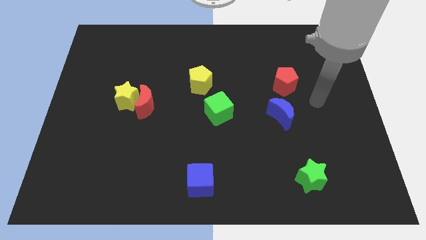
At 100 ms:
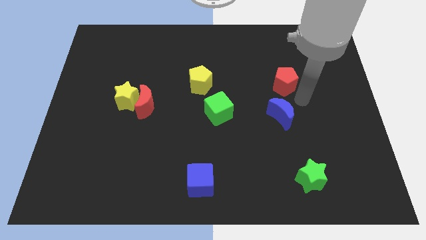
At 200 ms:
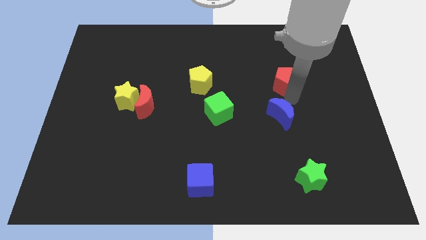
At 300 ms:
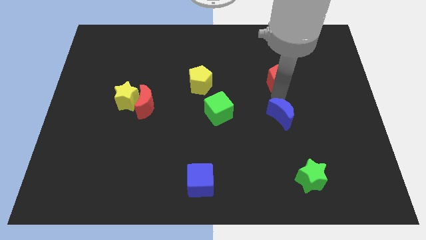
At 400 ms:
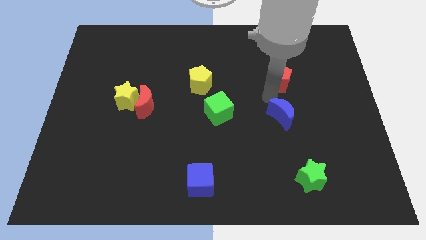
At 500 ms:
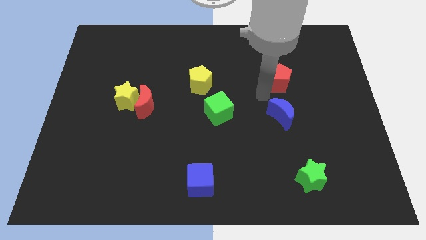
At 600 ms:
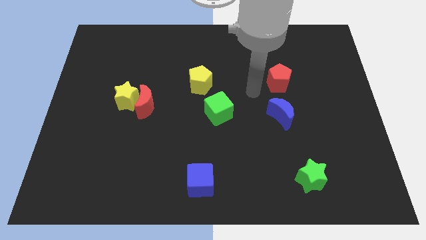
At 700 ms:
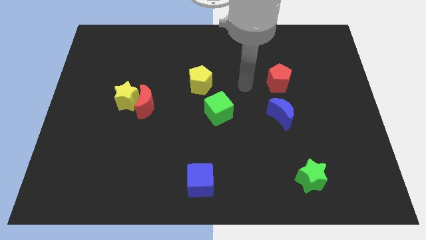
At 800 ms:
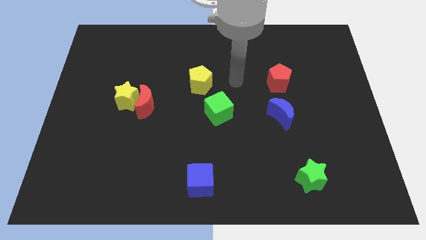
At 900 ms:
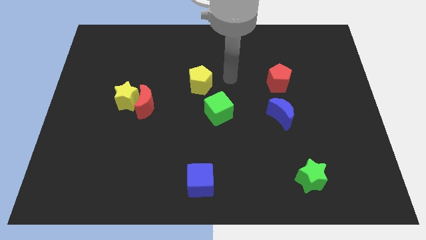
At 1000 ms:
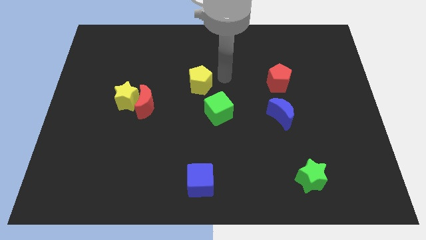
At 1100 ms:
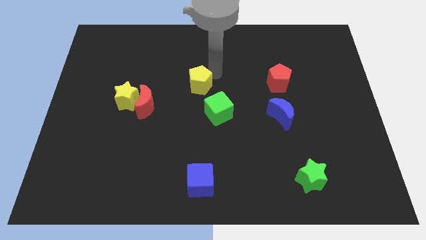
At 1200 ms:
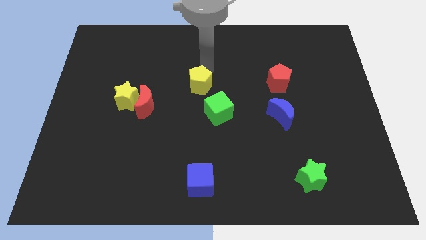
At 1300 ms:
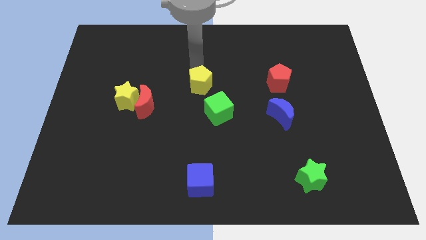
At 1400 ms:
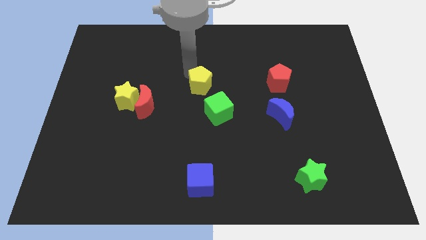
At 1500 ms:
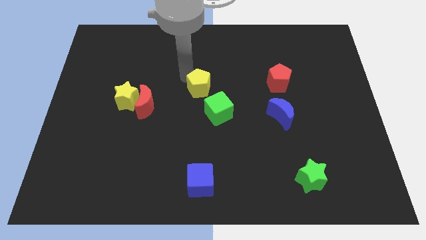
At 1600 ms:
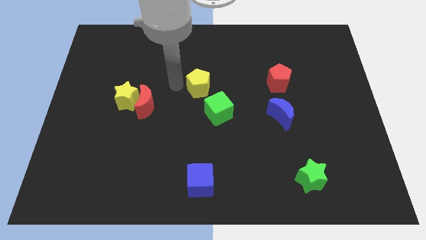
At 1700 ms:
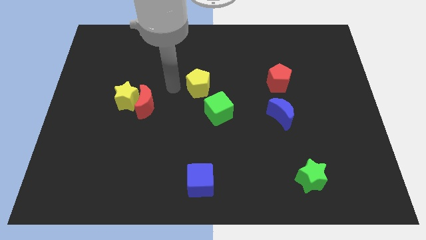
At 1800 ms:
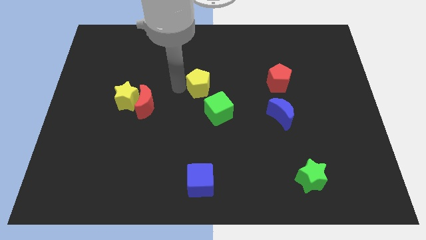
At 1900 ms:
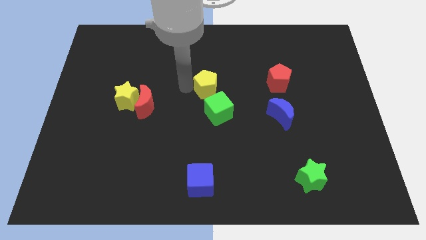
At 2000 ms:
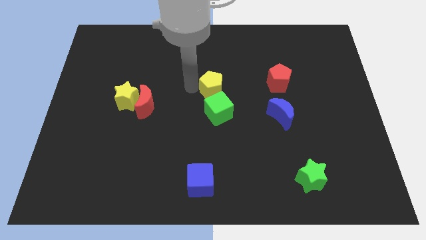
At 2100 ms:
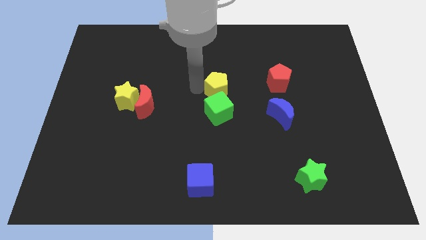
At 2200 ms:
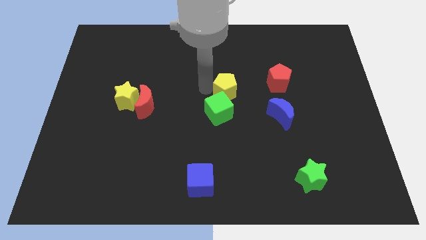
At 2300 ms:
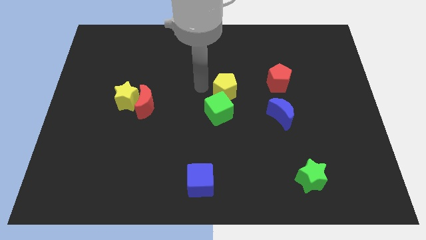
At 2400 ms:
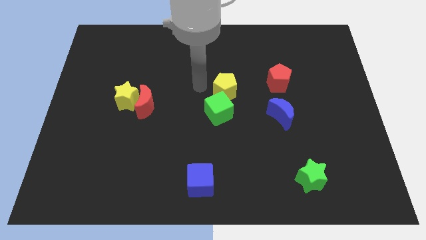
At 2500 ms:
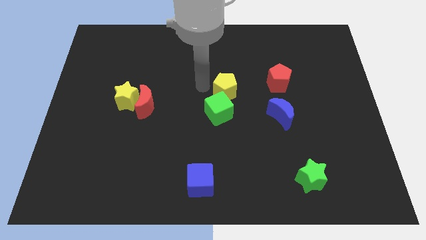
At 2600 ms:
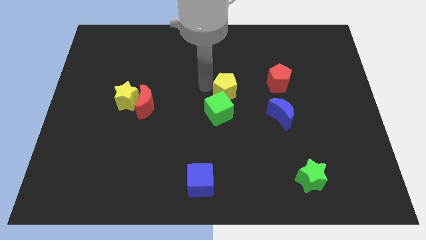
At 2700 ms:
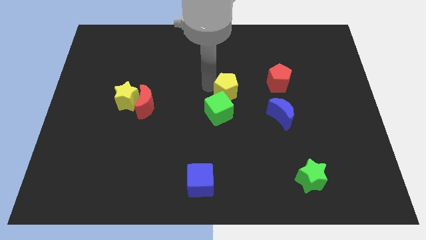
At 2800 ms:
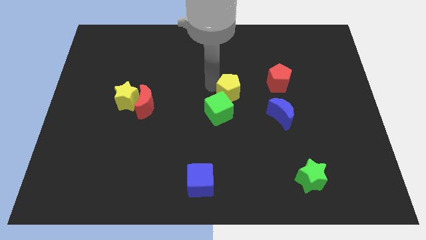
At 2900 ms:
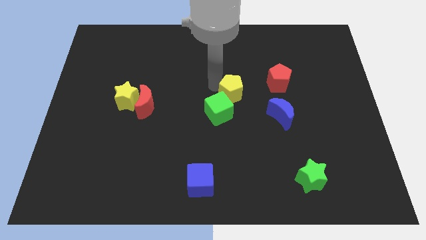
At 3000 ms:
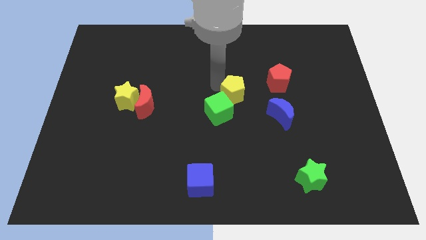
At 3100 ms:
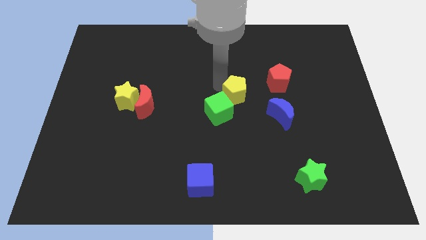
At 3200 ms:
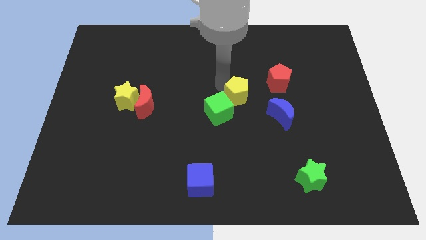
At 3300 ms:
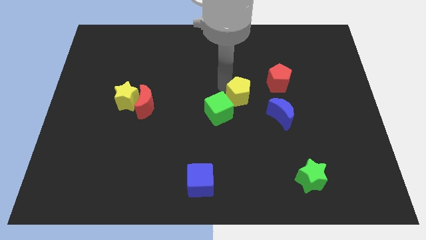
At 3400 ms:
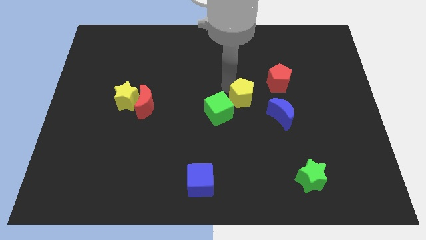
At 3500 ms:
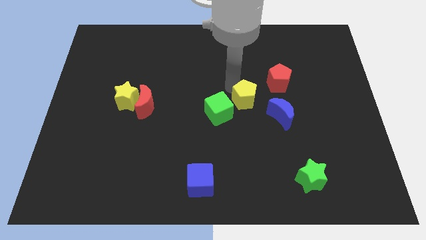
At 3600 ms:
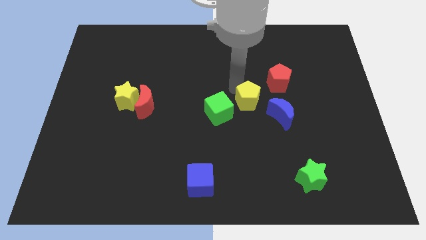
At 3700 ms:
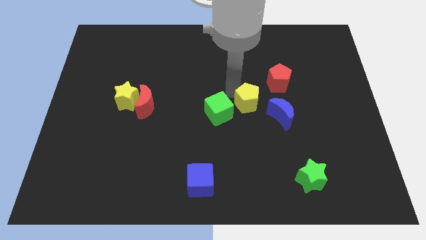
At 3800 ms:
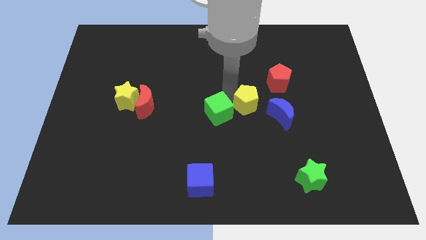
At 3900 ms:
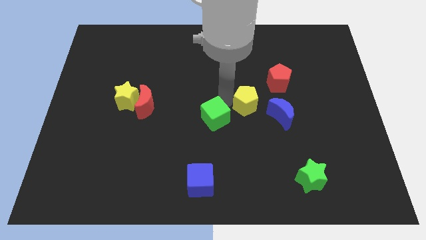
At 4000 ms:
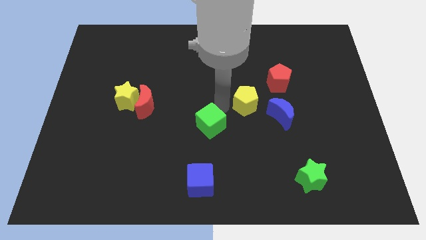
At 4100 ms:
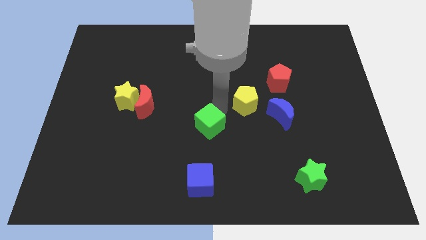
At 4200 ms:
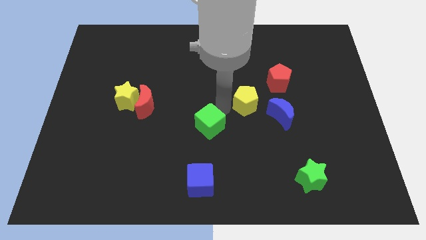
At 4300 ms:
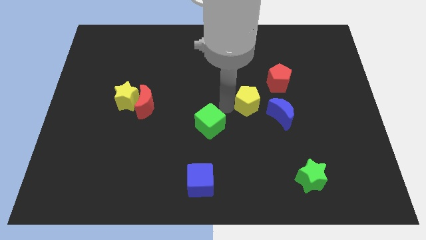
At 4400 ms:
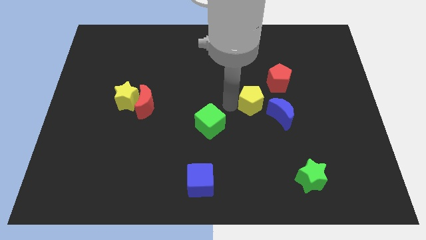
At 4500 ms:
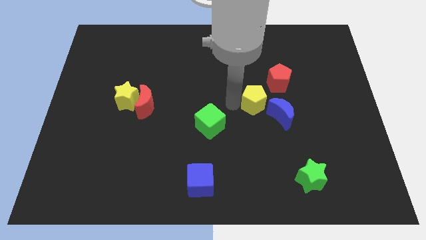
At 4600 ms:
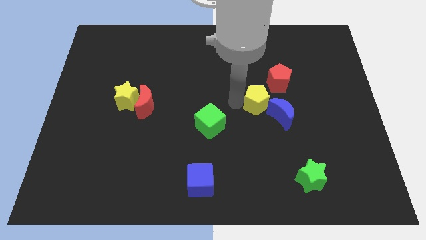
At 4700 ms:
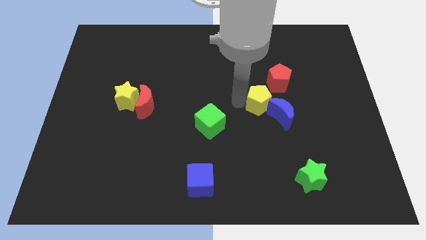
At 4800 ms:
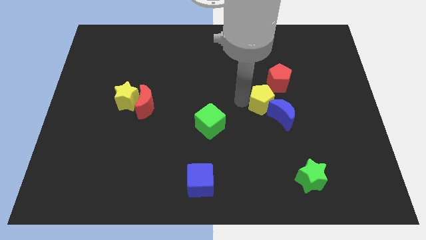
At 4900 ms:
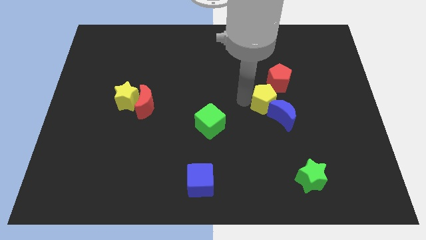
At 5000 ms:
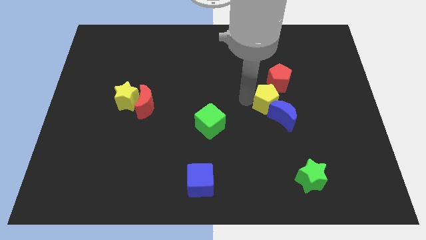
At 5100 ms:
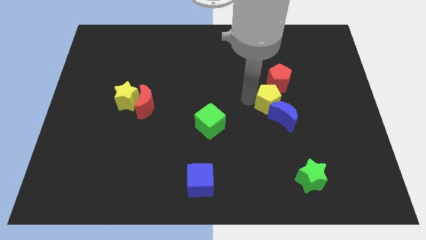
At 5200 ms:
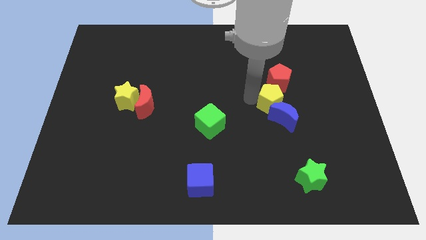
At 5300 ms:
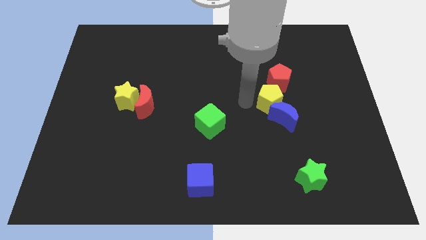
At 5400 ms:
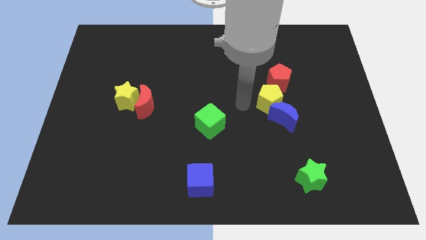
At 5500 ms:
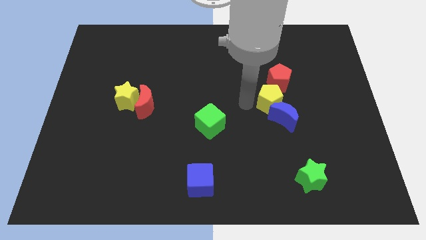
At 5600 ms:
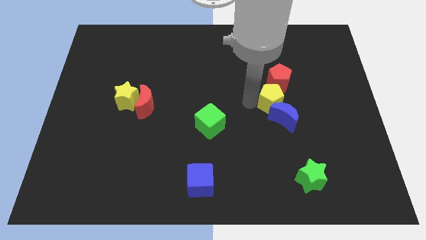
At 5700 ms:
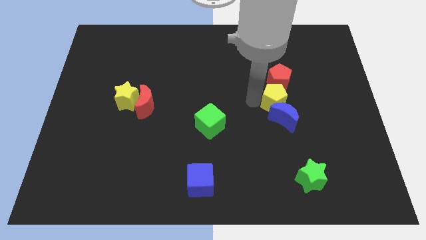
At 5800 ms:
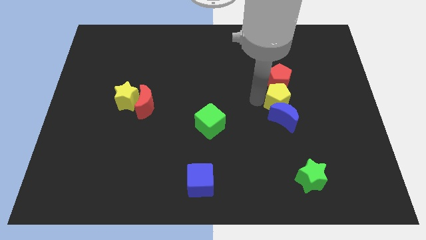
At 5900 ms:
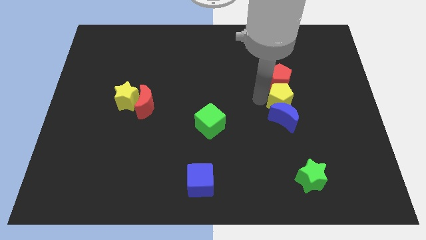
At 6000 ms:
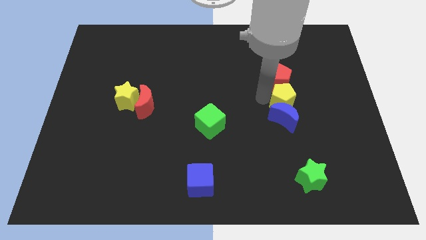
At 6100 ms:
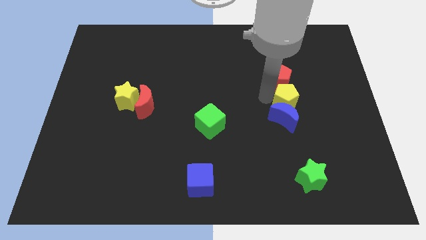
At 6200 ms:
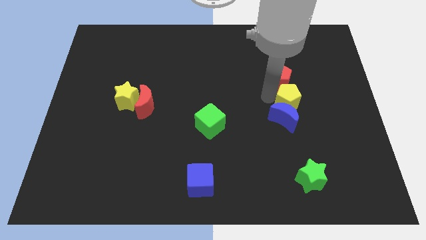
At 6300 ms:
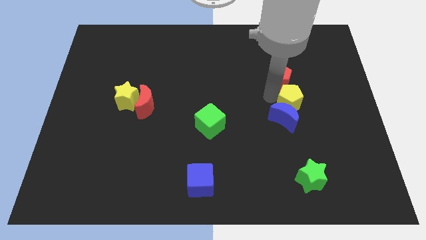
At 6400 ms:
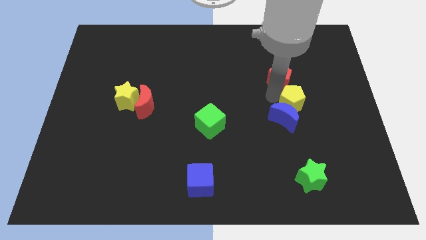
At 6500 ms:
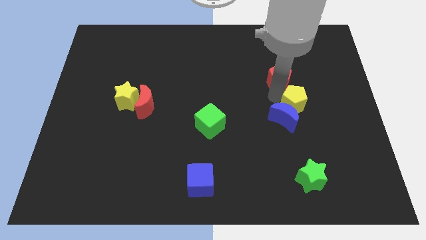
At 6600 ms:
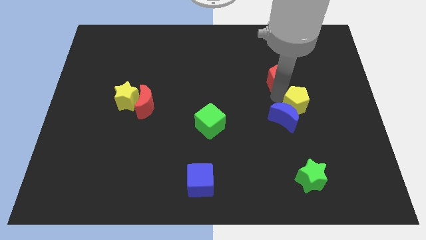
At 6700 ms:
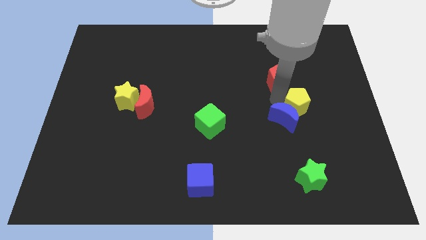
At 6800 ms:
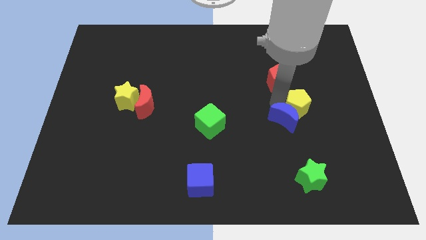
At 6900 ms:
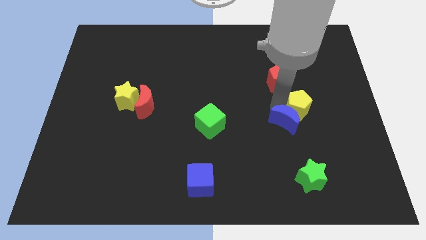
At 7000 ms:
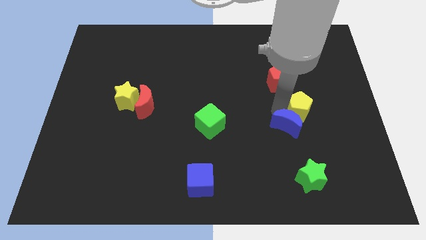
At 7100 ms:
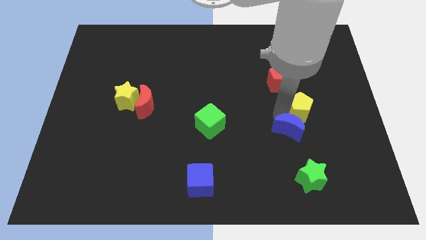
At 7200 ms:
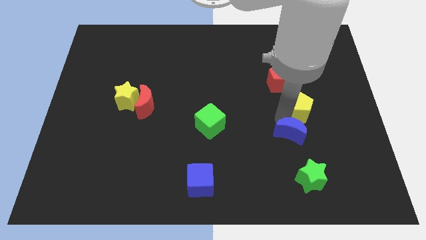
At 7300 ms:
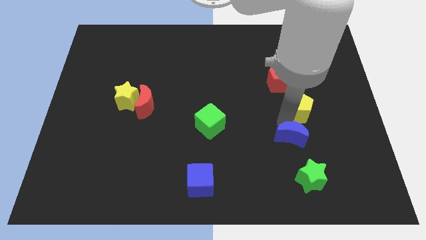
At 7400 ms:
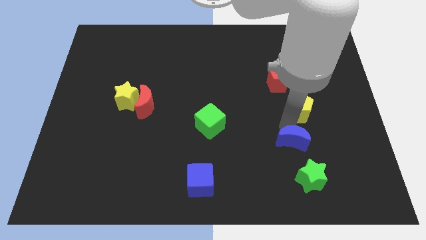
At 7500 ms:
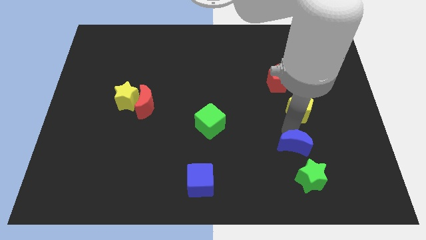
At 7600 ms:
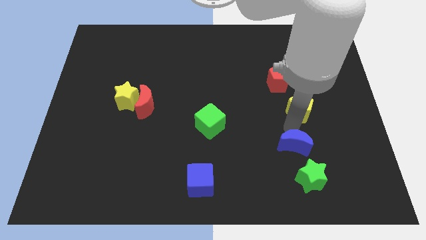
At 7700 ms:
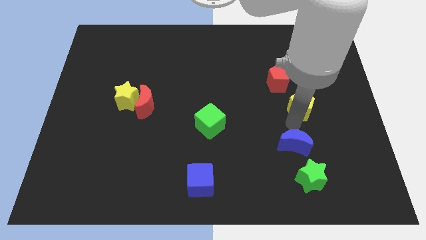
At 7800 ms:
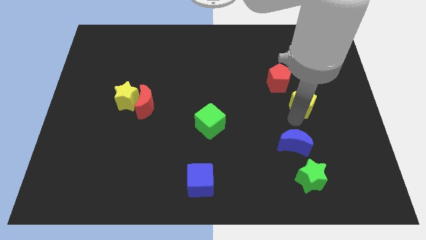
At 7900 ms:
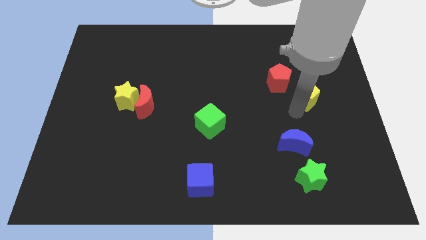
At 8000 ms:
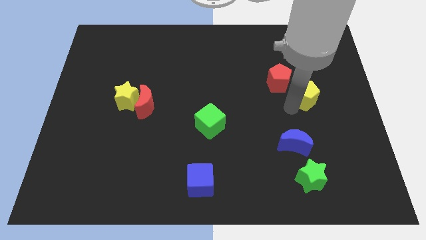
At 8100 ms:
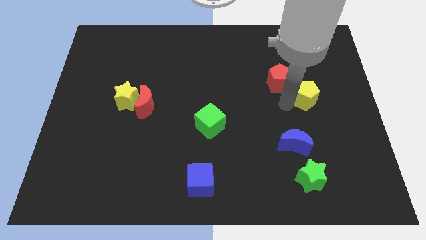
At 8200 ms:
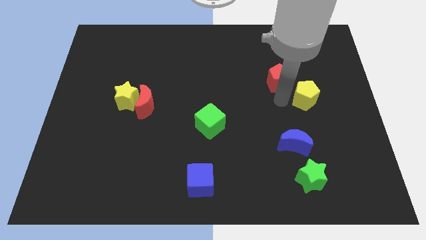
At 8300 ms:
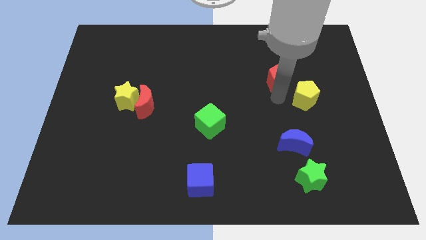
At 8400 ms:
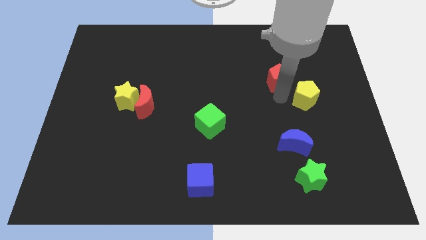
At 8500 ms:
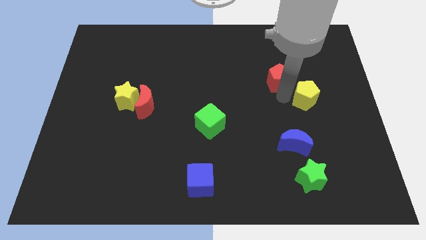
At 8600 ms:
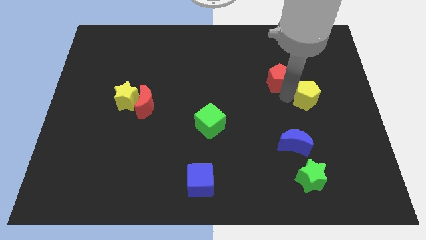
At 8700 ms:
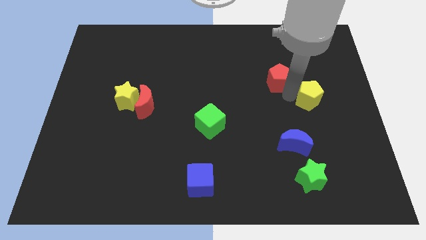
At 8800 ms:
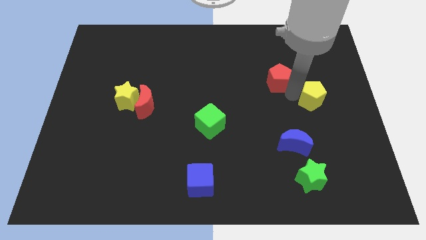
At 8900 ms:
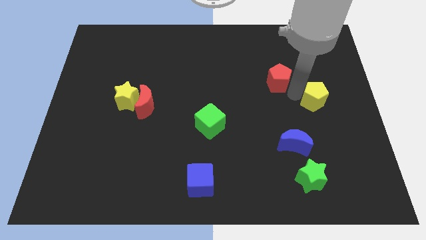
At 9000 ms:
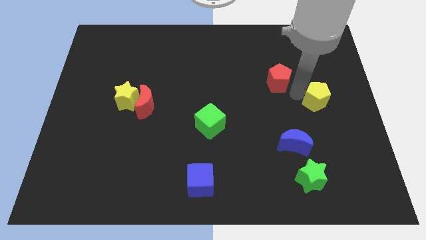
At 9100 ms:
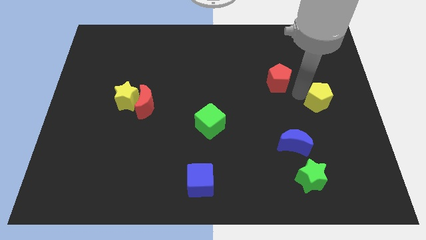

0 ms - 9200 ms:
put the yellow pentagon to the center right
